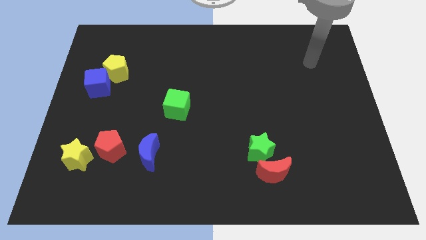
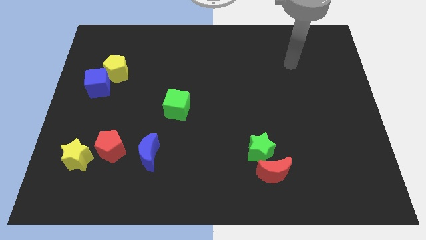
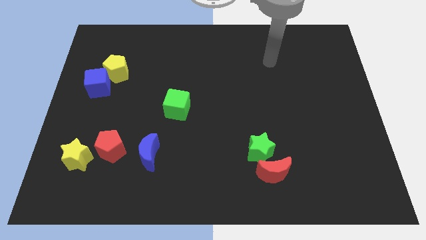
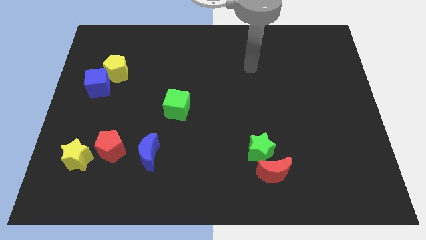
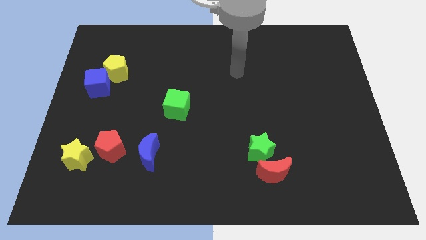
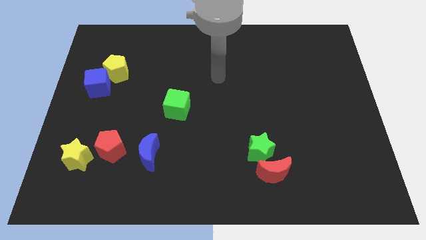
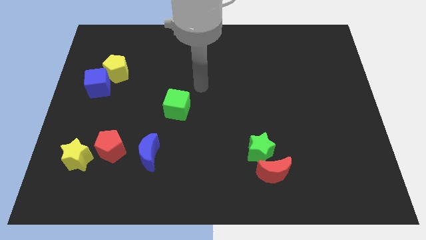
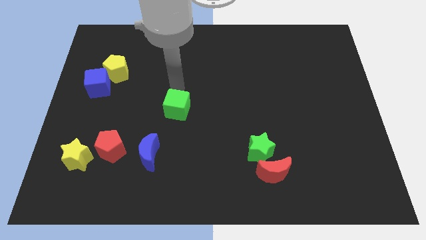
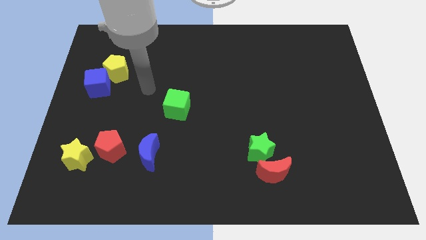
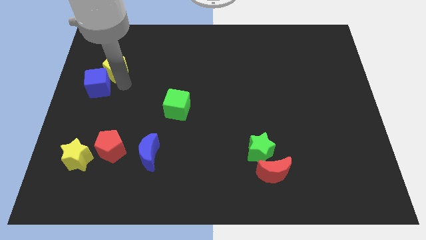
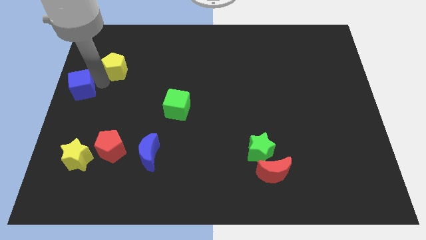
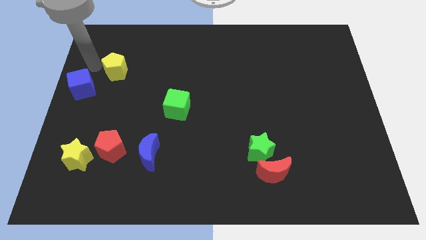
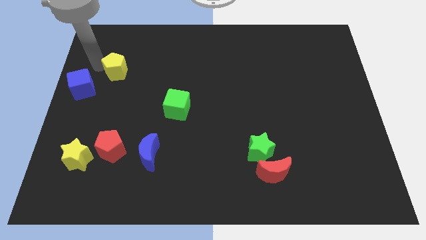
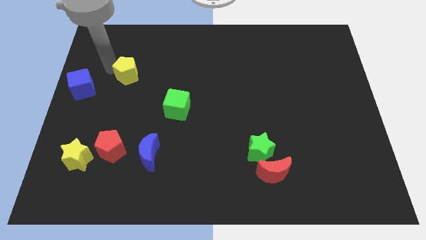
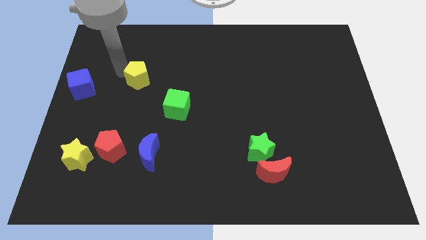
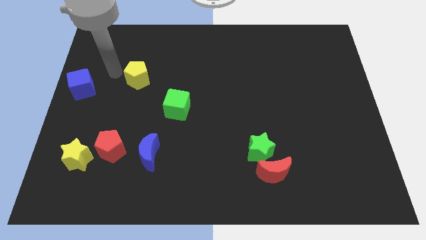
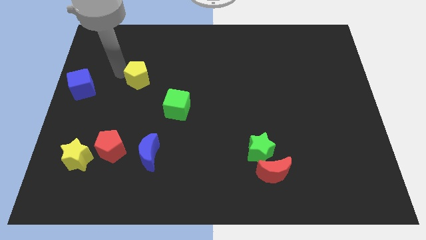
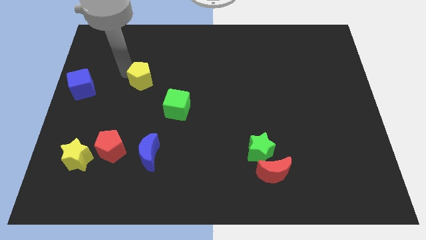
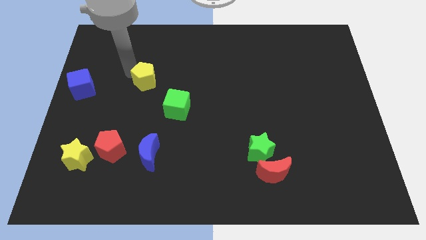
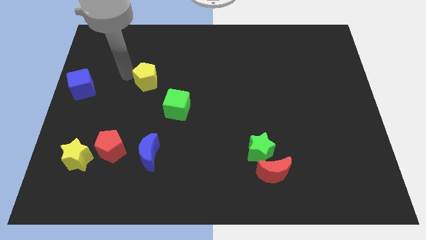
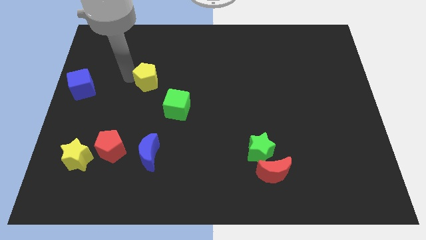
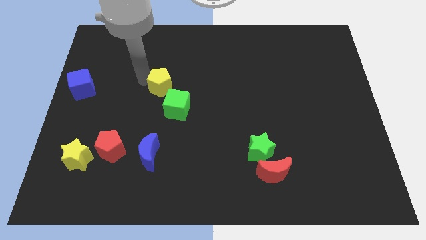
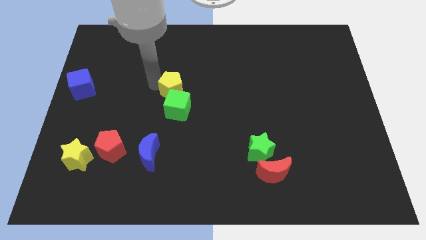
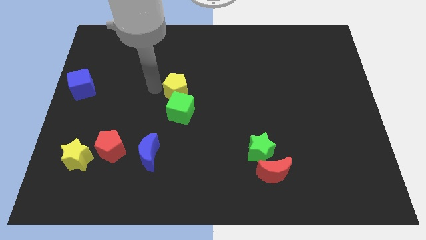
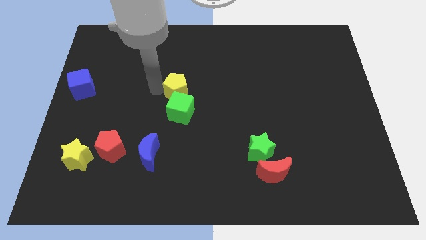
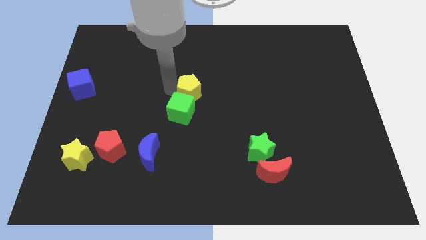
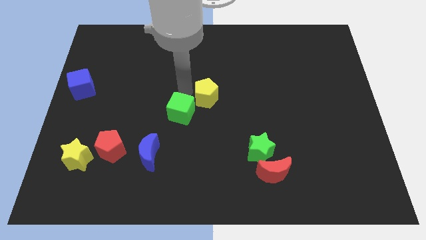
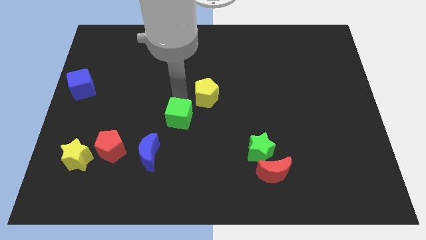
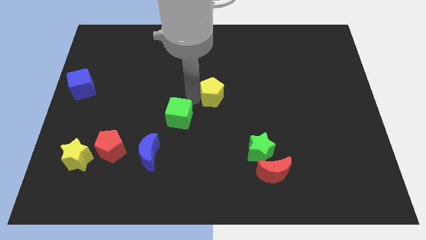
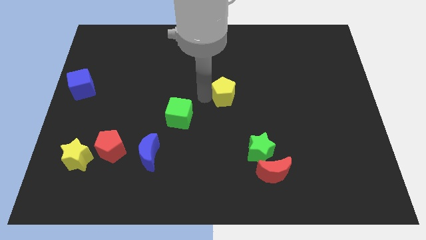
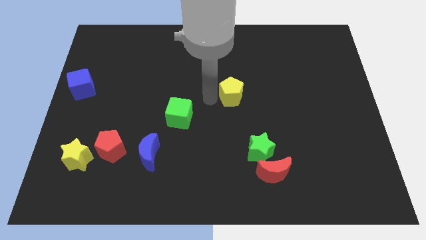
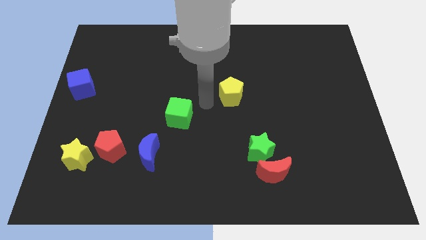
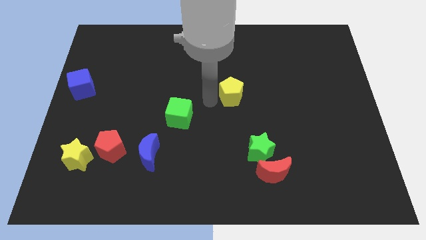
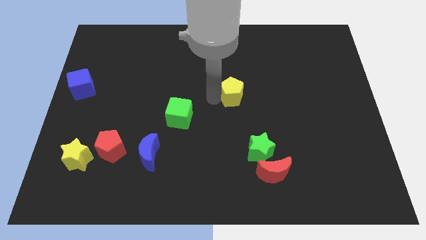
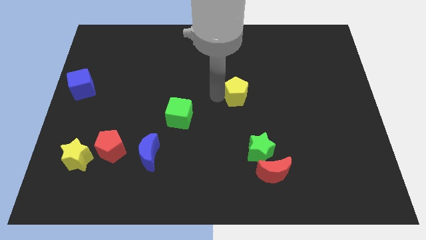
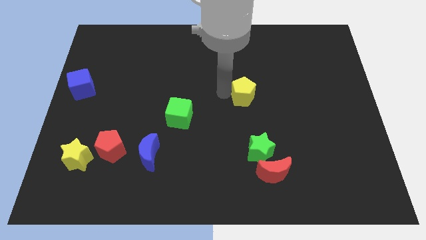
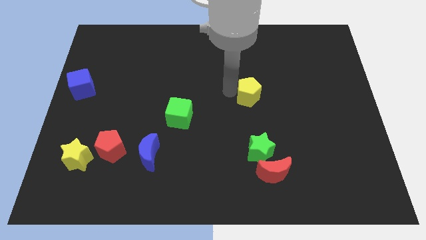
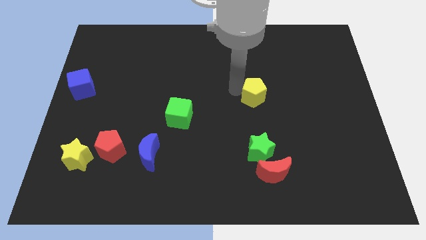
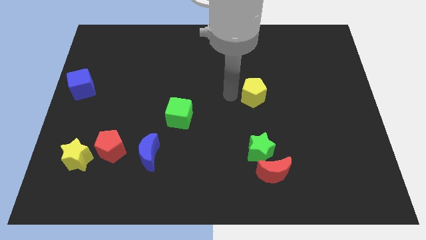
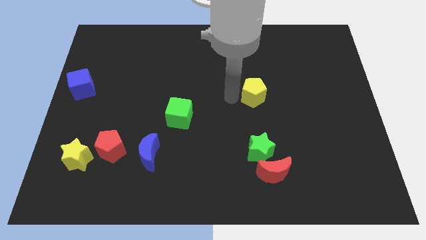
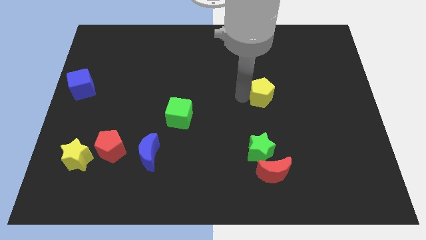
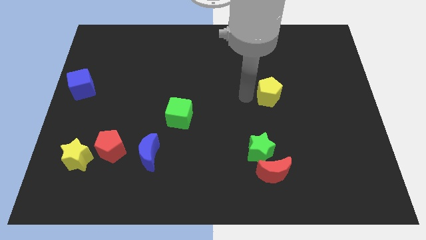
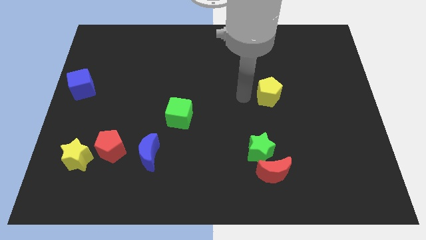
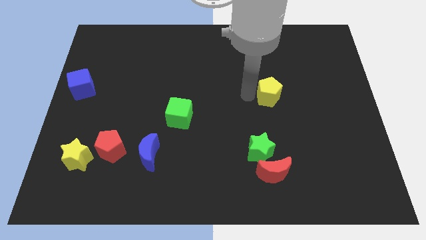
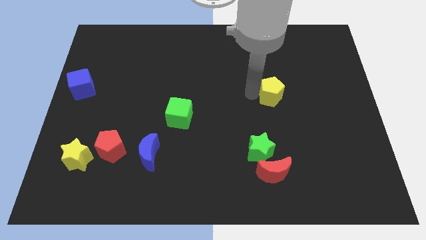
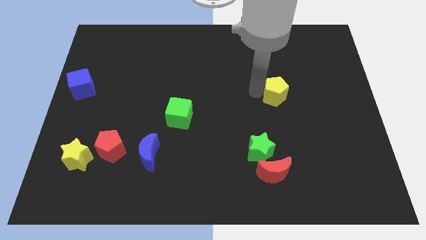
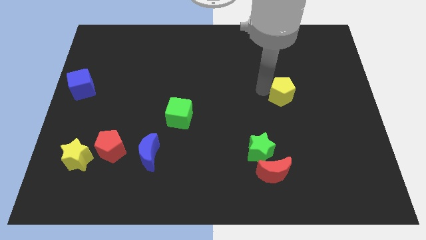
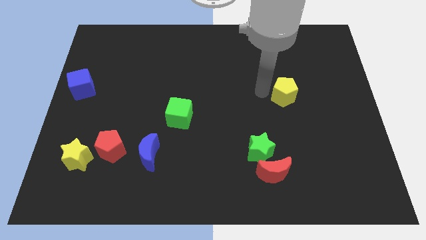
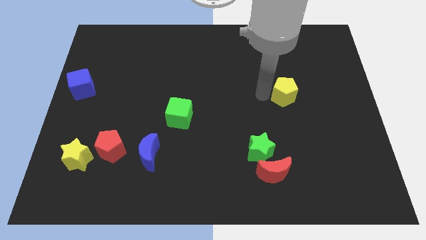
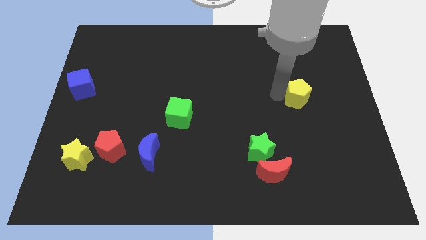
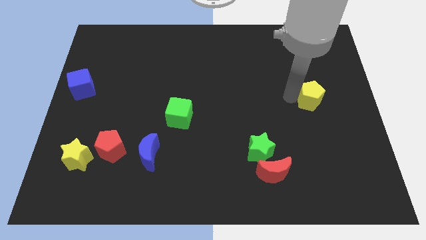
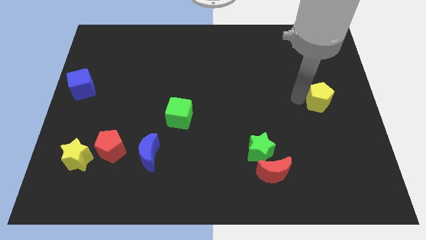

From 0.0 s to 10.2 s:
push the yellow pentagon to the center right
